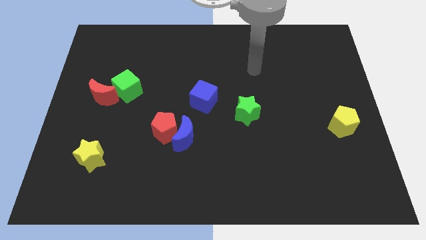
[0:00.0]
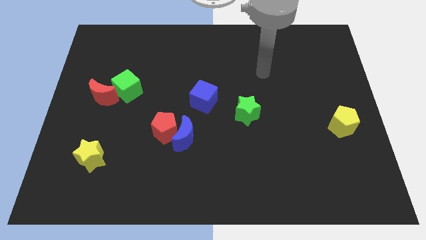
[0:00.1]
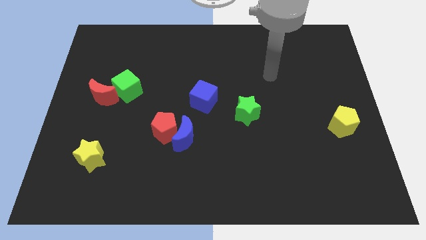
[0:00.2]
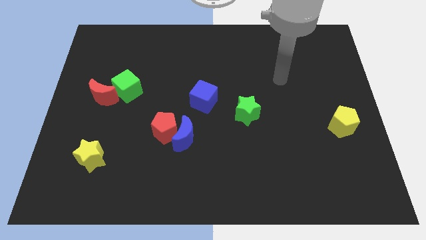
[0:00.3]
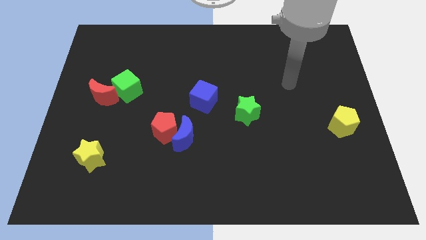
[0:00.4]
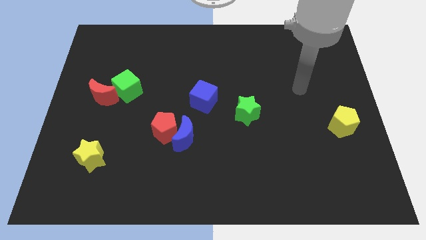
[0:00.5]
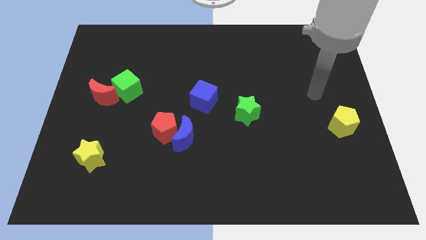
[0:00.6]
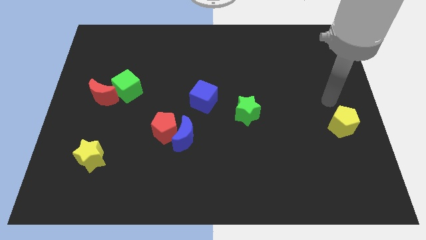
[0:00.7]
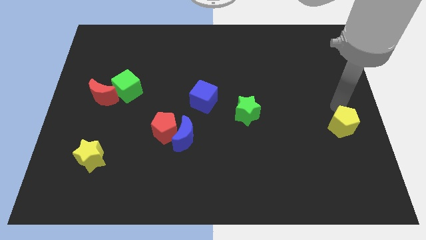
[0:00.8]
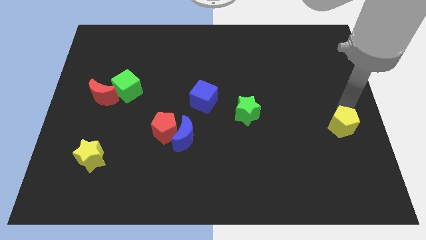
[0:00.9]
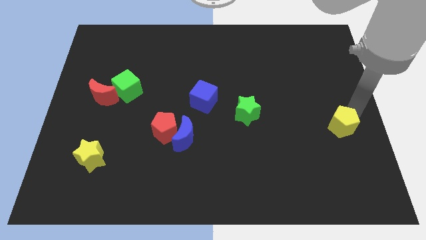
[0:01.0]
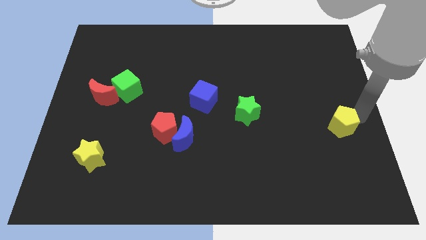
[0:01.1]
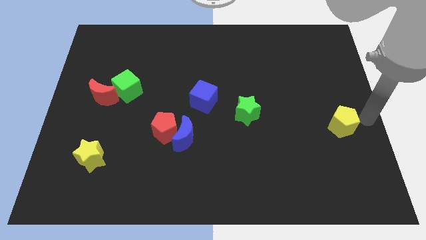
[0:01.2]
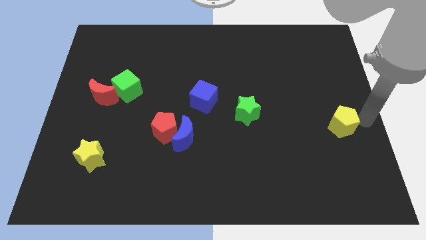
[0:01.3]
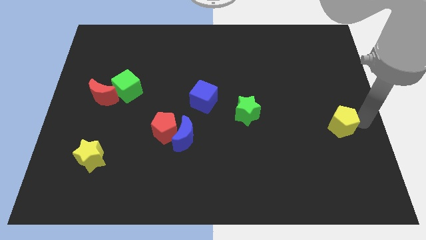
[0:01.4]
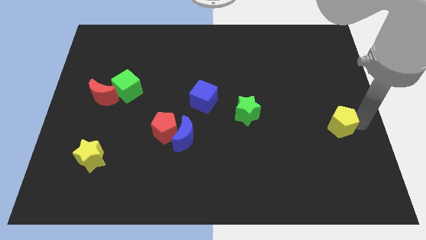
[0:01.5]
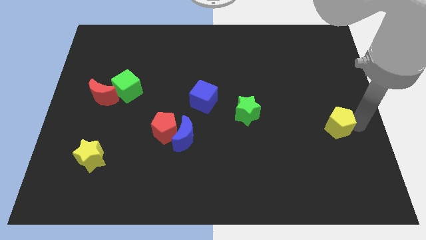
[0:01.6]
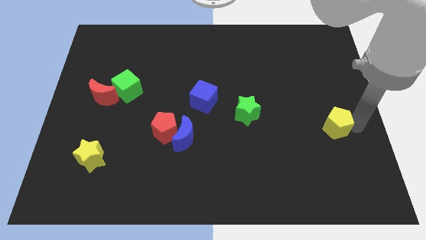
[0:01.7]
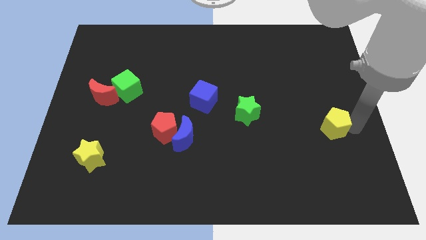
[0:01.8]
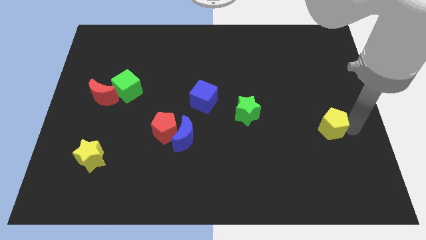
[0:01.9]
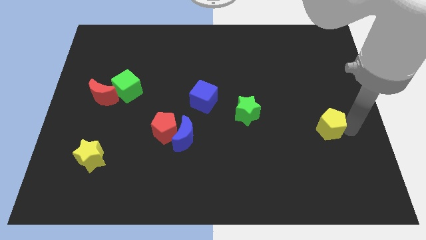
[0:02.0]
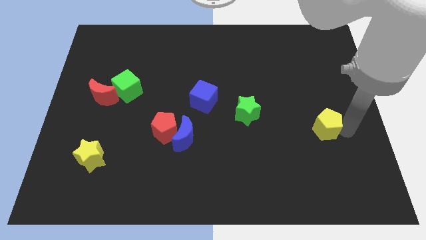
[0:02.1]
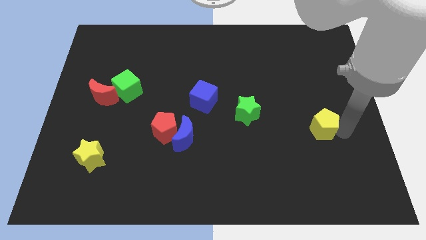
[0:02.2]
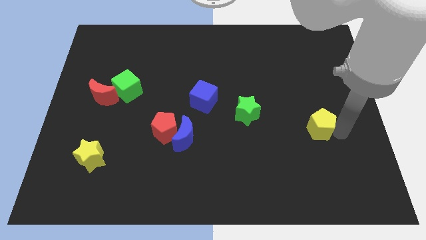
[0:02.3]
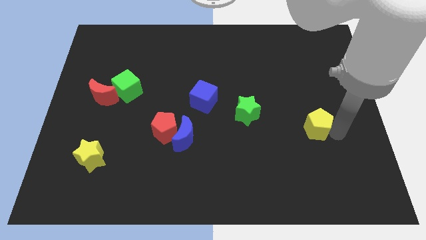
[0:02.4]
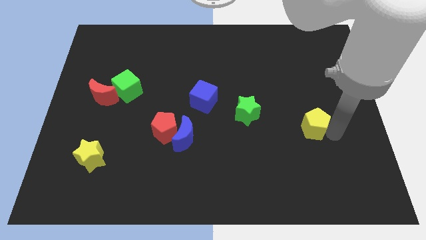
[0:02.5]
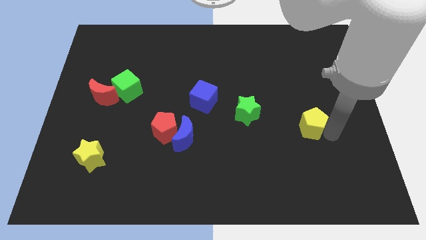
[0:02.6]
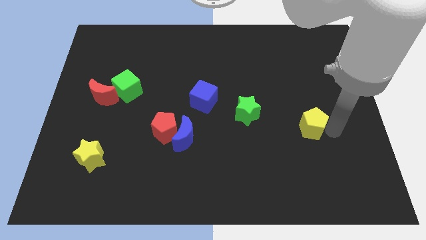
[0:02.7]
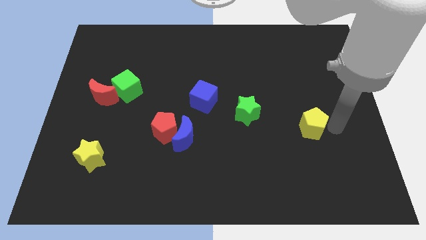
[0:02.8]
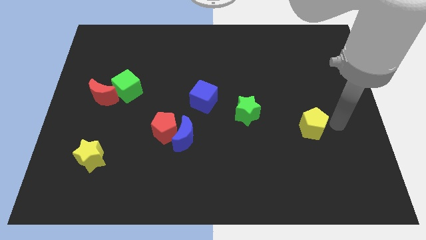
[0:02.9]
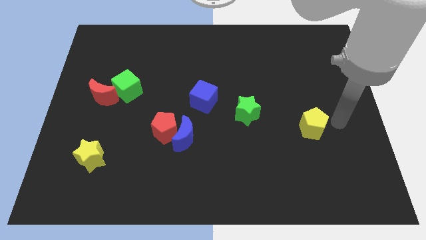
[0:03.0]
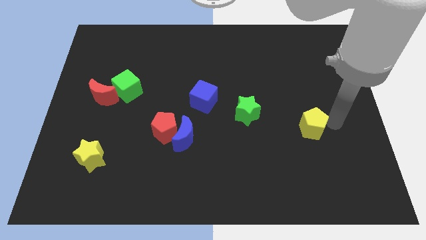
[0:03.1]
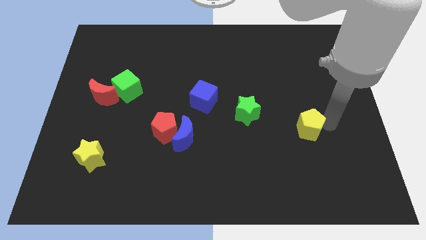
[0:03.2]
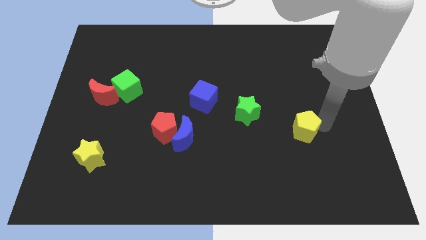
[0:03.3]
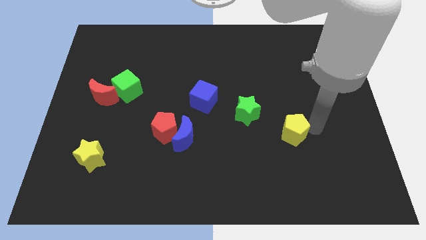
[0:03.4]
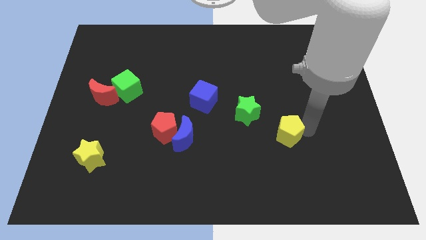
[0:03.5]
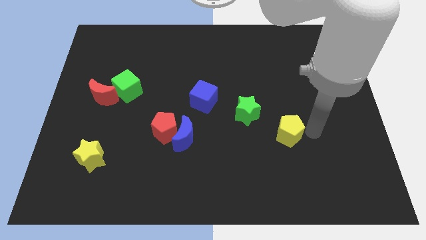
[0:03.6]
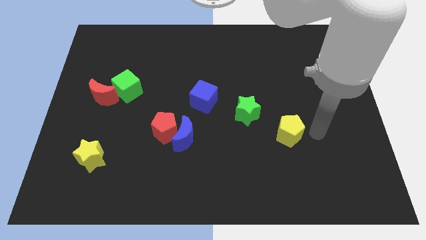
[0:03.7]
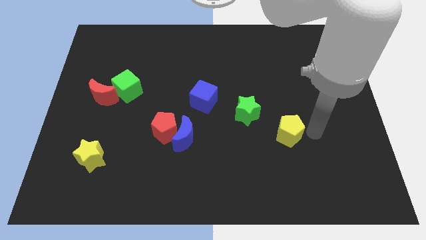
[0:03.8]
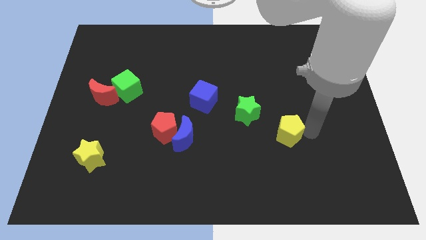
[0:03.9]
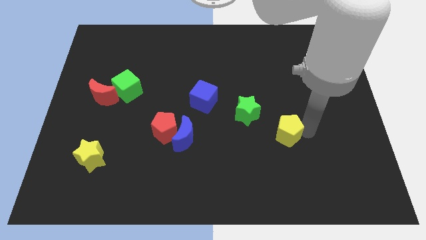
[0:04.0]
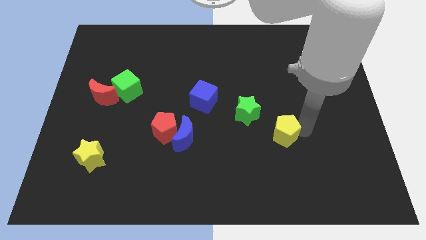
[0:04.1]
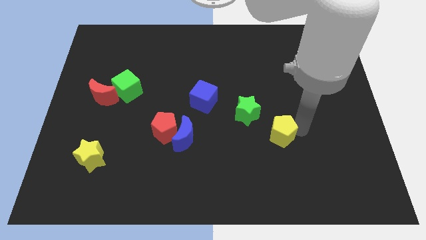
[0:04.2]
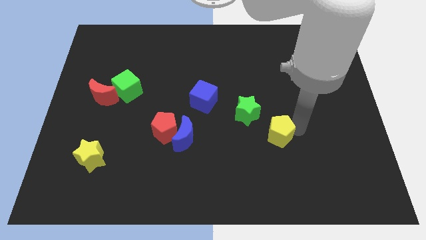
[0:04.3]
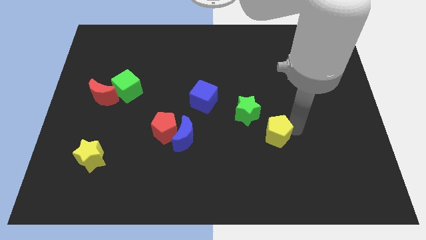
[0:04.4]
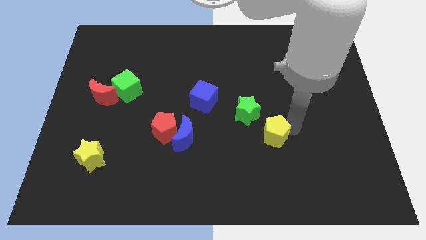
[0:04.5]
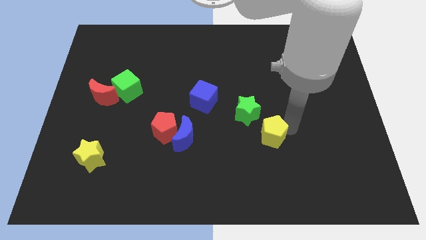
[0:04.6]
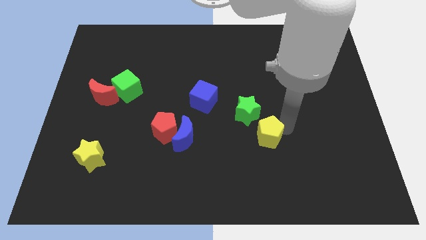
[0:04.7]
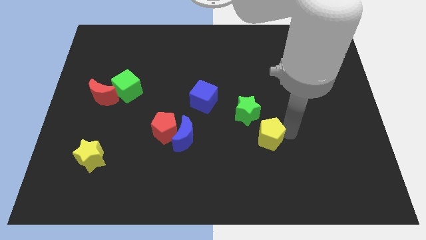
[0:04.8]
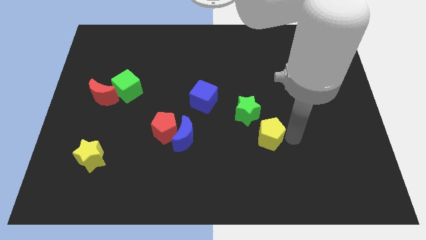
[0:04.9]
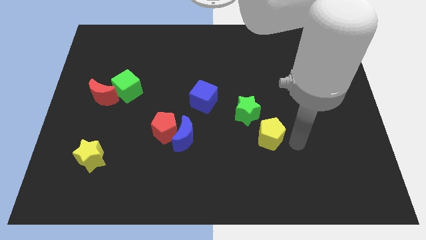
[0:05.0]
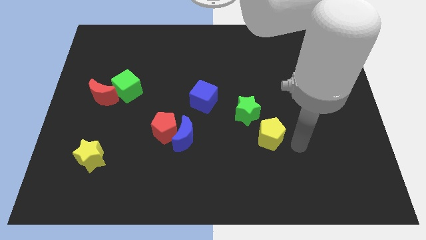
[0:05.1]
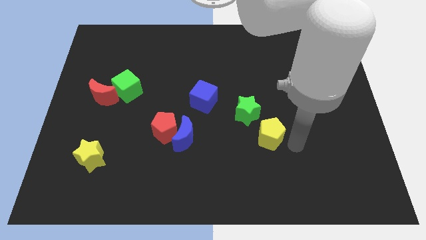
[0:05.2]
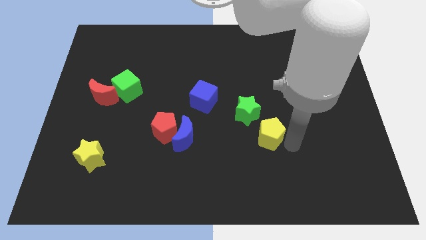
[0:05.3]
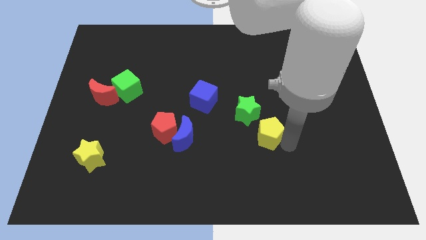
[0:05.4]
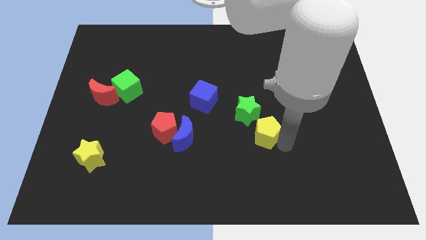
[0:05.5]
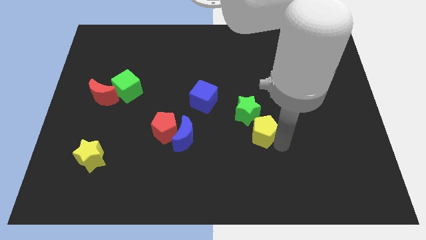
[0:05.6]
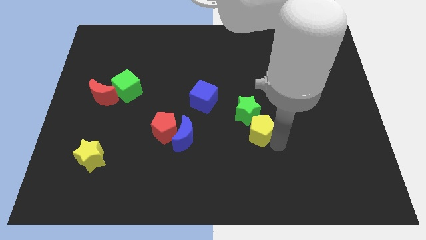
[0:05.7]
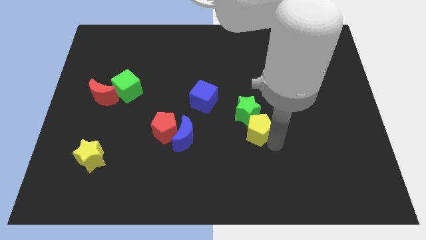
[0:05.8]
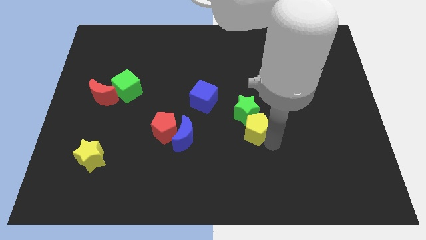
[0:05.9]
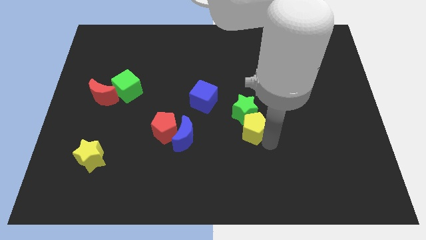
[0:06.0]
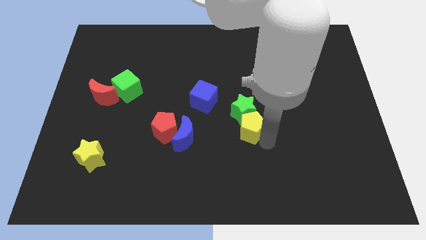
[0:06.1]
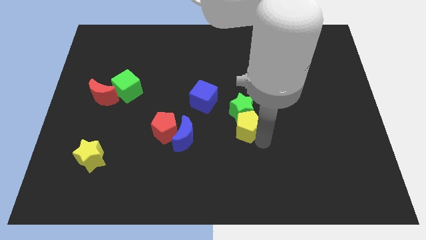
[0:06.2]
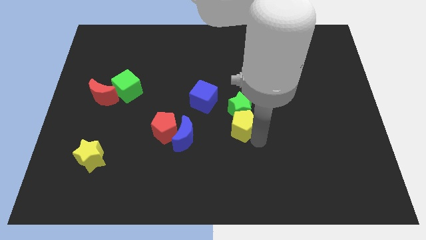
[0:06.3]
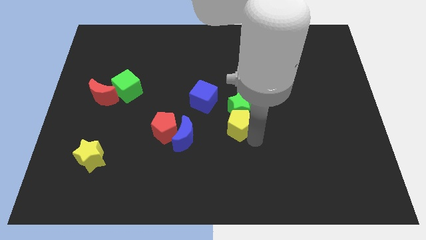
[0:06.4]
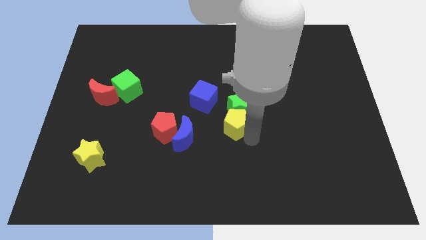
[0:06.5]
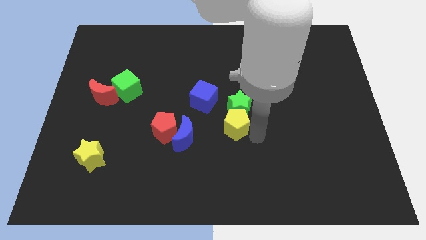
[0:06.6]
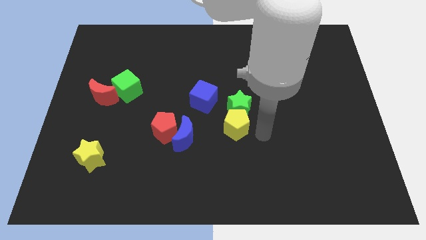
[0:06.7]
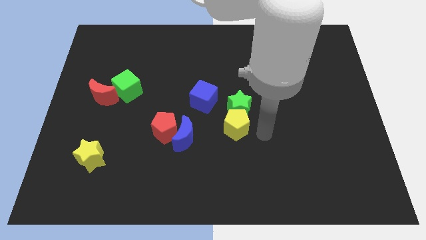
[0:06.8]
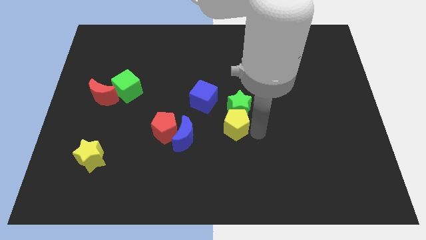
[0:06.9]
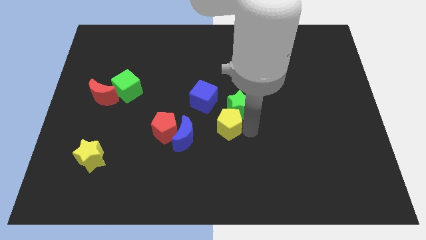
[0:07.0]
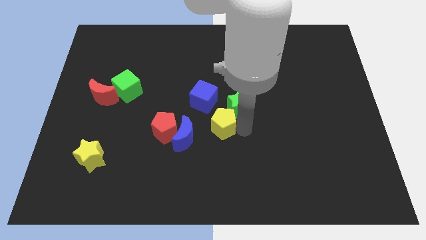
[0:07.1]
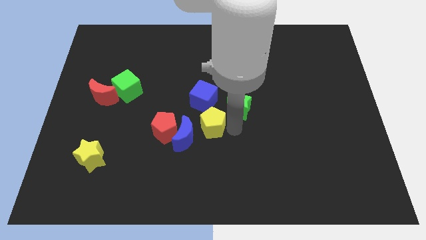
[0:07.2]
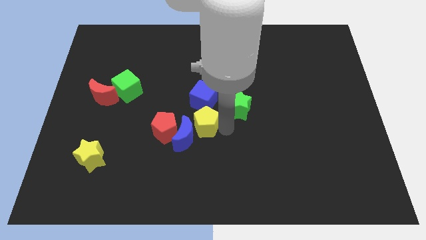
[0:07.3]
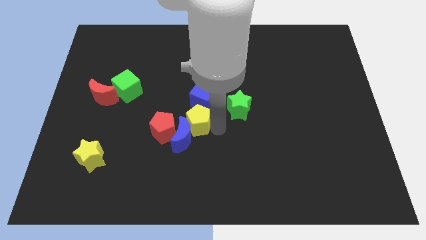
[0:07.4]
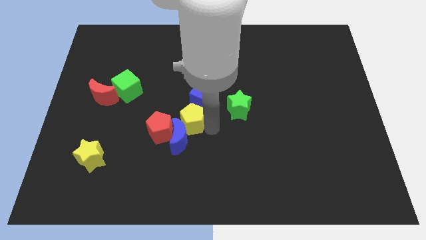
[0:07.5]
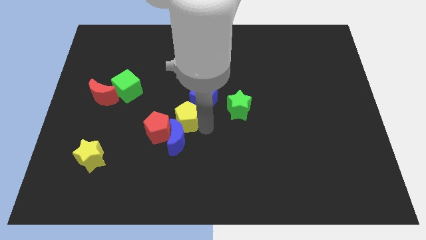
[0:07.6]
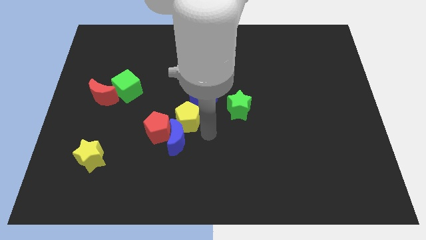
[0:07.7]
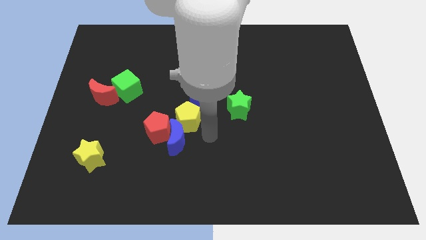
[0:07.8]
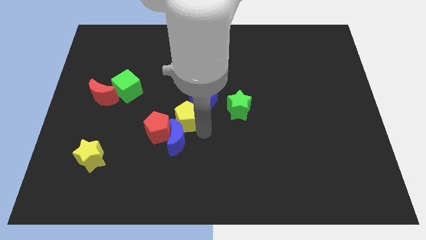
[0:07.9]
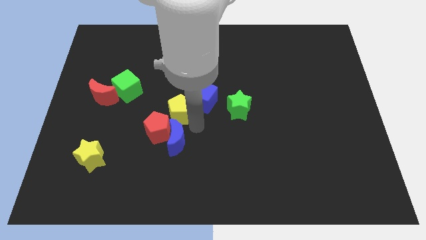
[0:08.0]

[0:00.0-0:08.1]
slide the yellow pentagon to the left side of the blue cube

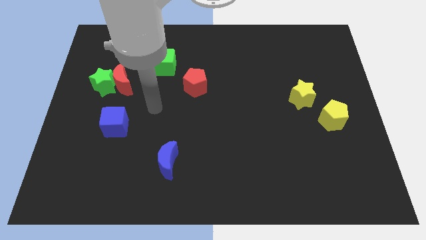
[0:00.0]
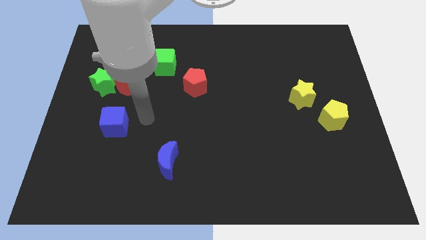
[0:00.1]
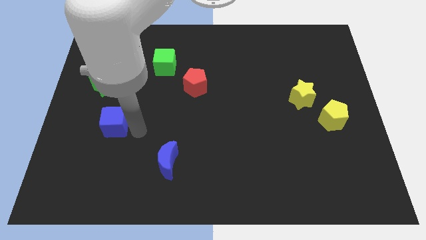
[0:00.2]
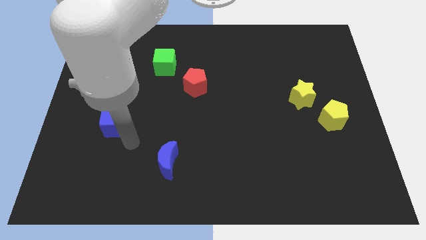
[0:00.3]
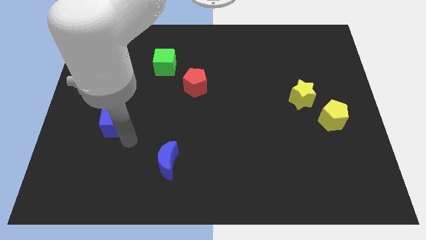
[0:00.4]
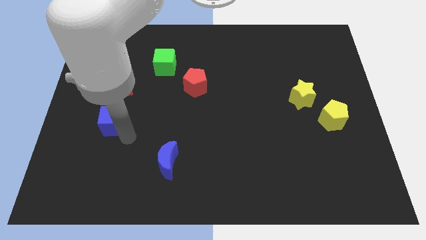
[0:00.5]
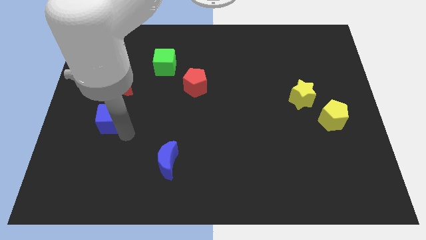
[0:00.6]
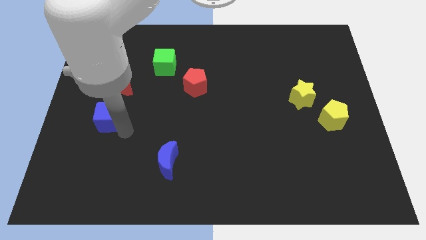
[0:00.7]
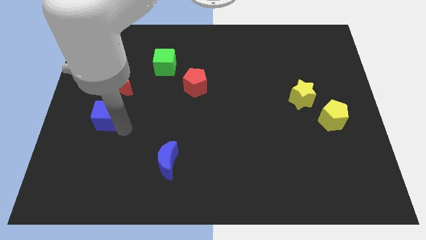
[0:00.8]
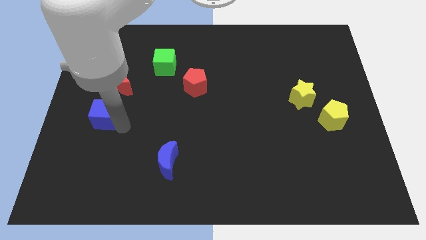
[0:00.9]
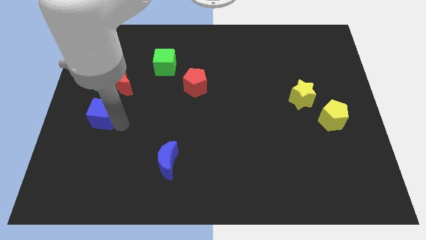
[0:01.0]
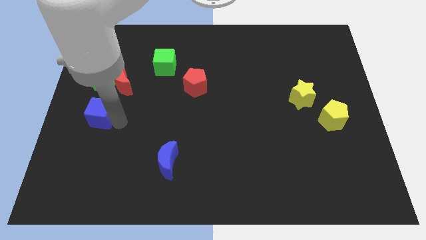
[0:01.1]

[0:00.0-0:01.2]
put the blue cube diagonally down and to the left of the red moon
